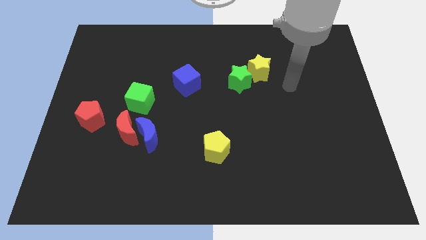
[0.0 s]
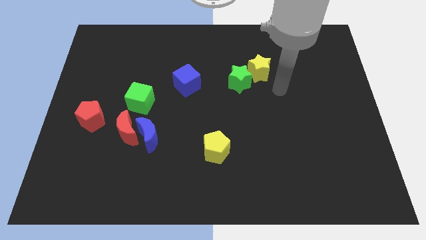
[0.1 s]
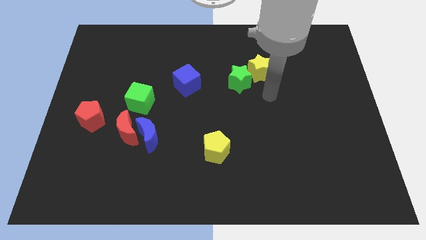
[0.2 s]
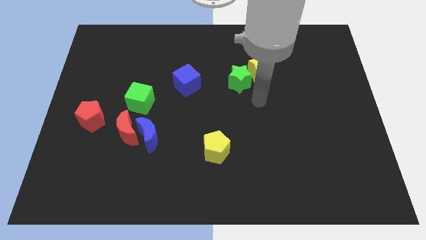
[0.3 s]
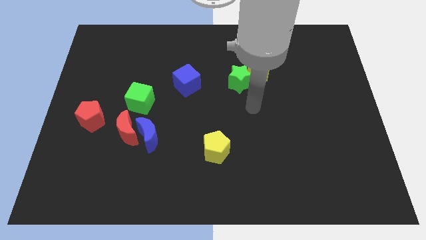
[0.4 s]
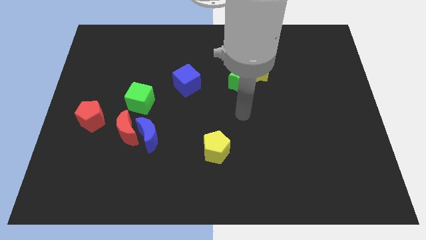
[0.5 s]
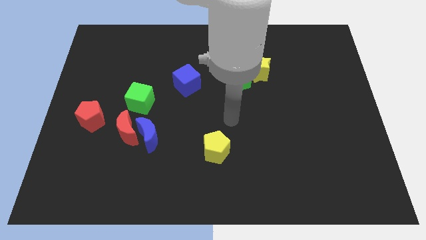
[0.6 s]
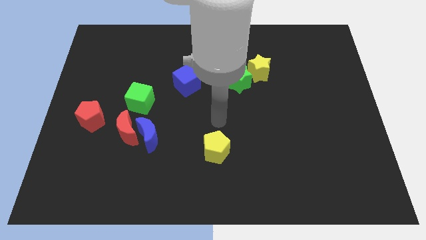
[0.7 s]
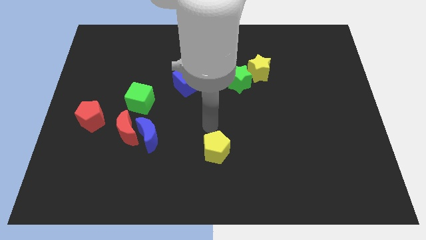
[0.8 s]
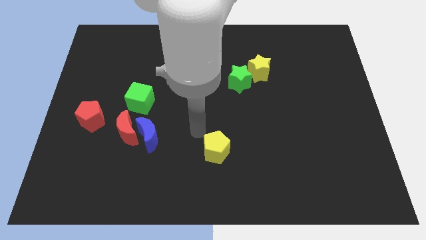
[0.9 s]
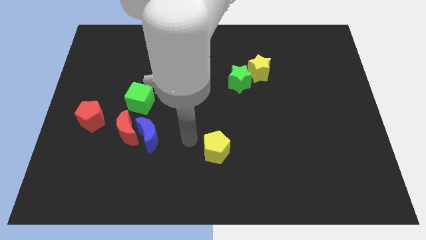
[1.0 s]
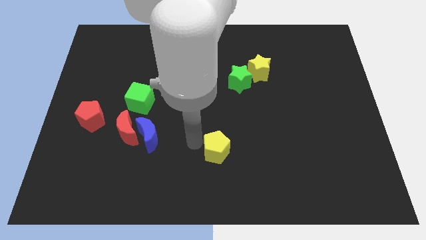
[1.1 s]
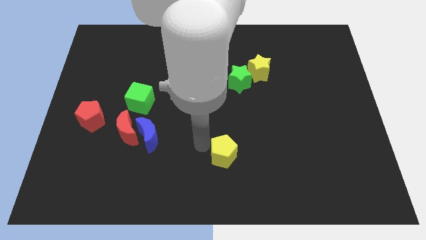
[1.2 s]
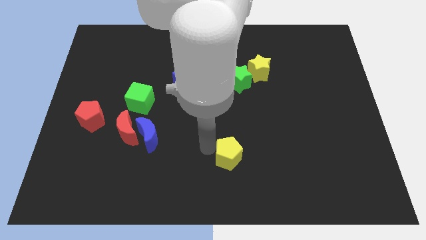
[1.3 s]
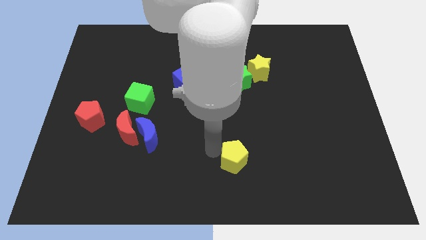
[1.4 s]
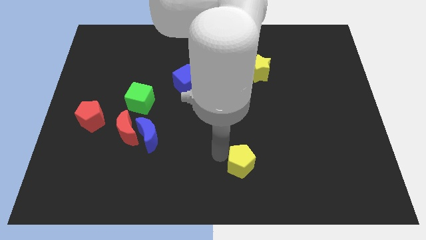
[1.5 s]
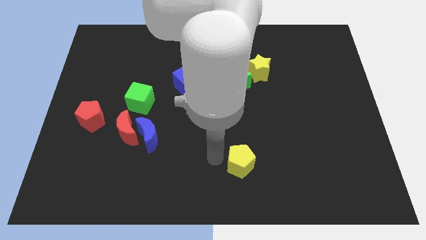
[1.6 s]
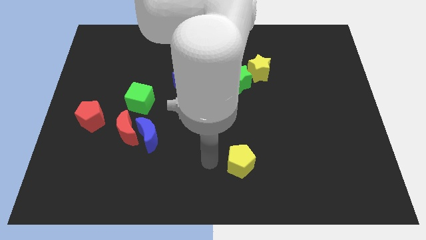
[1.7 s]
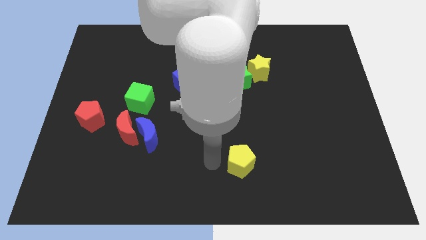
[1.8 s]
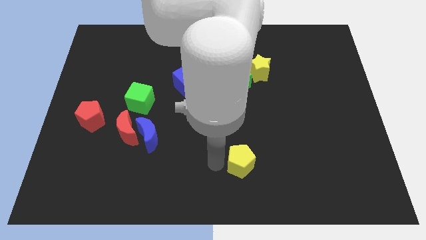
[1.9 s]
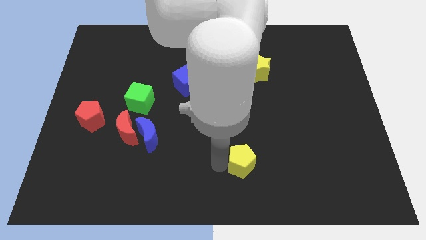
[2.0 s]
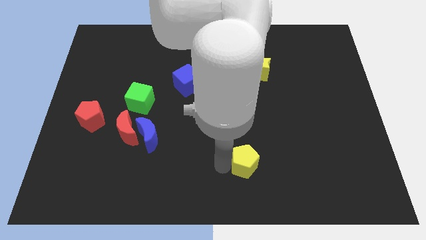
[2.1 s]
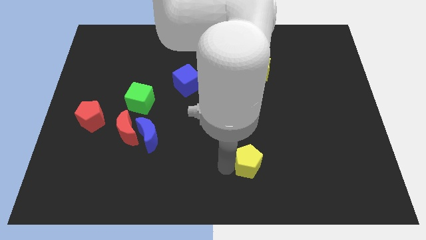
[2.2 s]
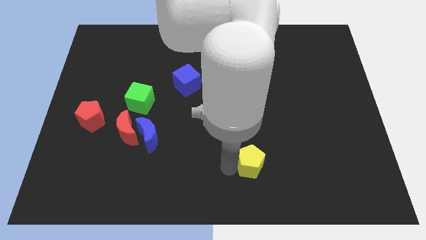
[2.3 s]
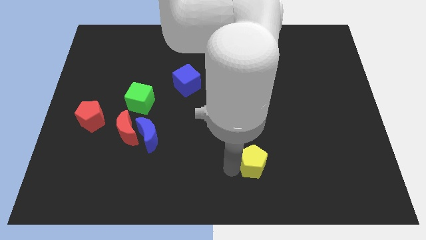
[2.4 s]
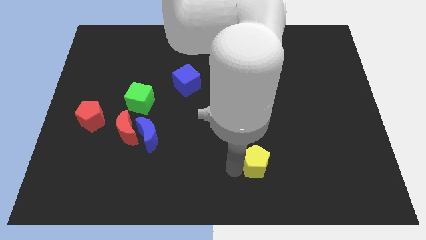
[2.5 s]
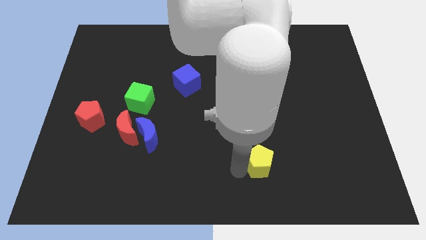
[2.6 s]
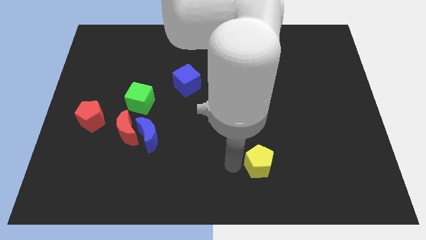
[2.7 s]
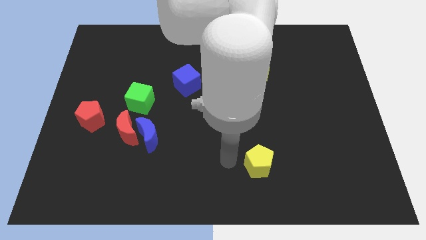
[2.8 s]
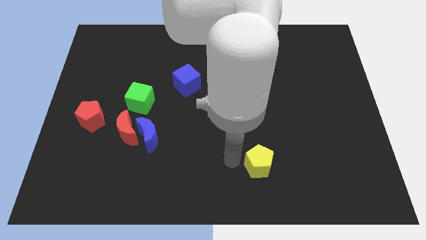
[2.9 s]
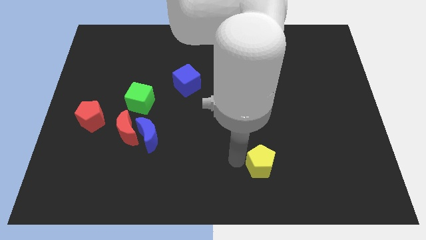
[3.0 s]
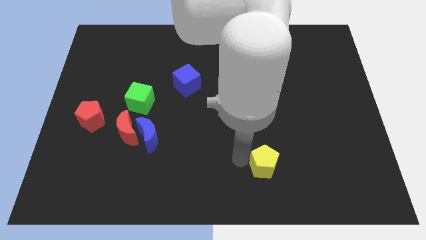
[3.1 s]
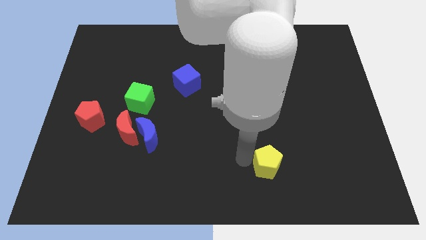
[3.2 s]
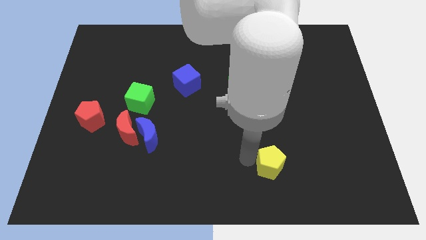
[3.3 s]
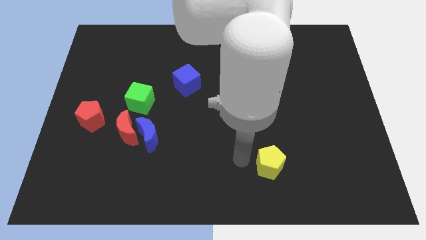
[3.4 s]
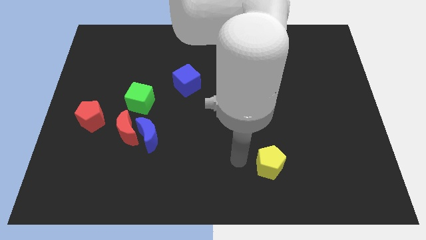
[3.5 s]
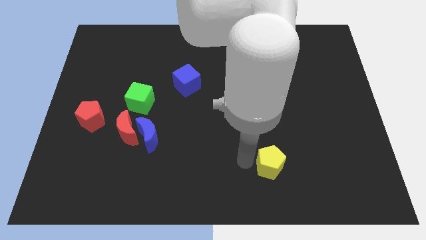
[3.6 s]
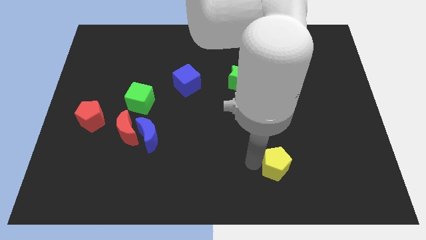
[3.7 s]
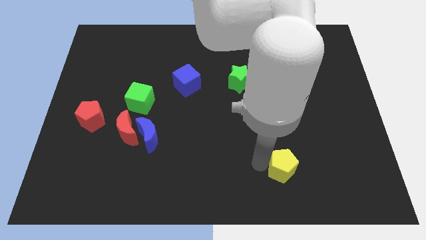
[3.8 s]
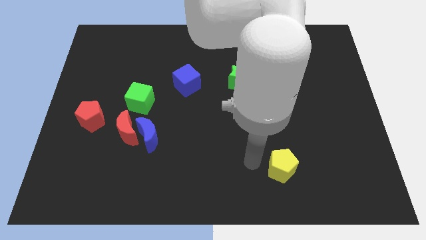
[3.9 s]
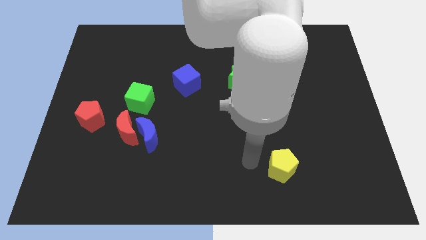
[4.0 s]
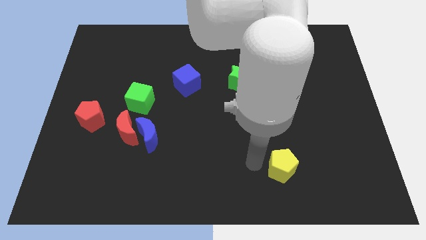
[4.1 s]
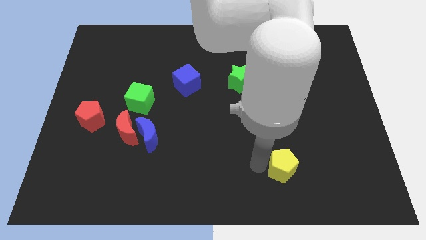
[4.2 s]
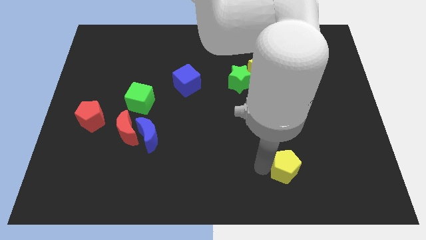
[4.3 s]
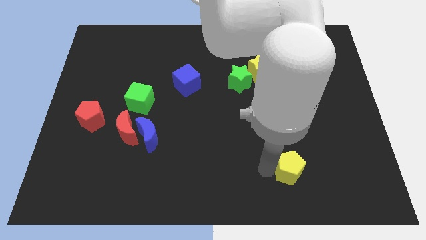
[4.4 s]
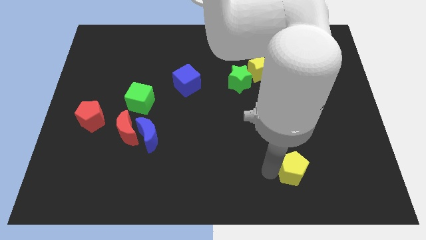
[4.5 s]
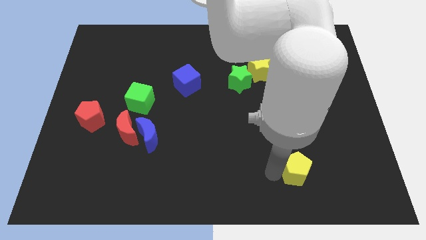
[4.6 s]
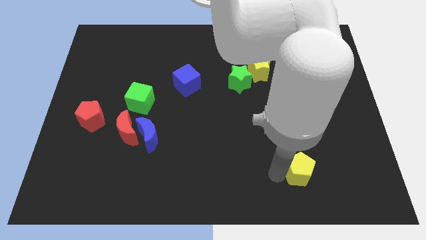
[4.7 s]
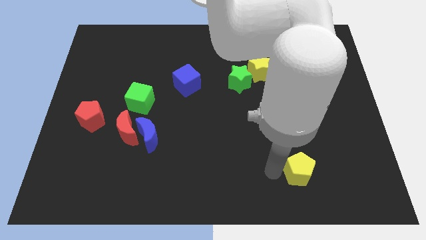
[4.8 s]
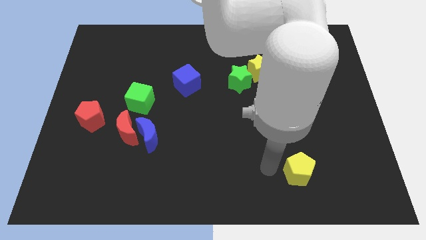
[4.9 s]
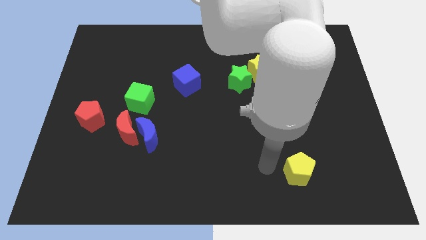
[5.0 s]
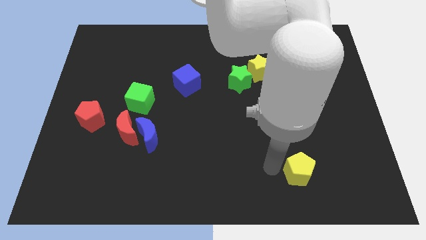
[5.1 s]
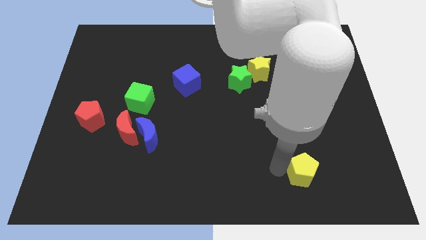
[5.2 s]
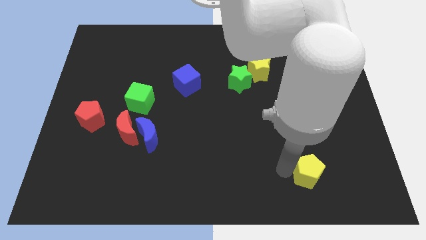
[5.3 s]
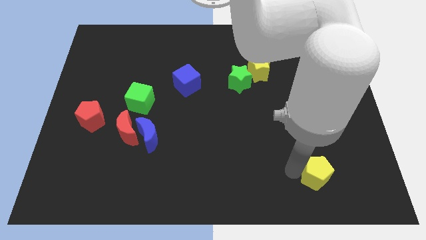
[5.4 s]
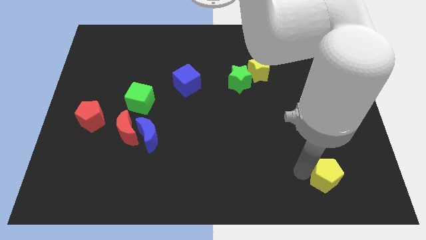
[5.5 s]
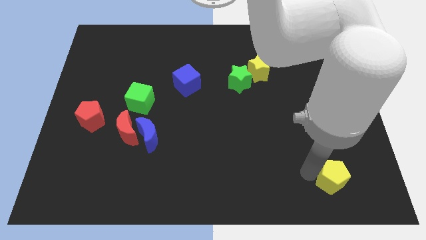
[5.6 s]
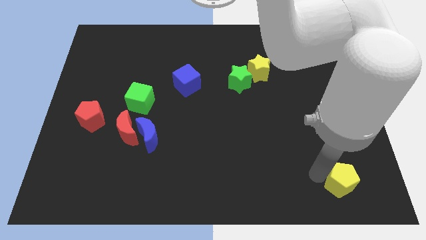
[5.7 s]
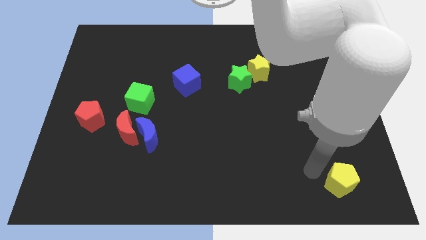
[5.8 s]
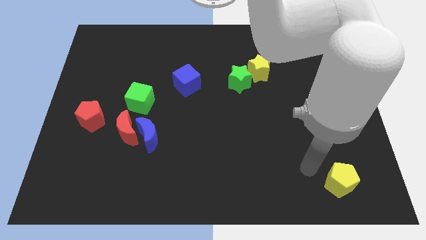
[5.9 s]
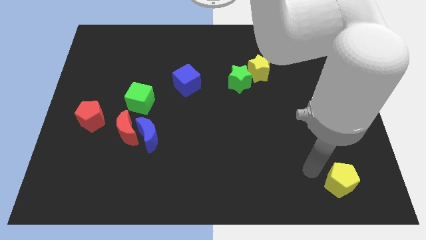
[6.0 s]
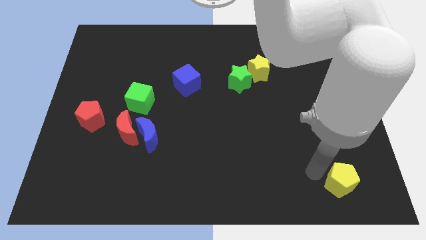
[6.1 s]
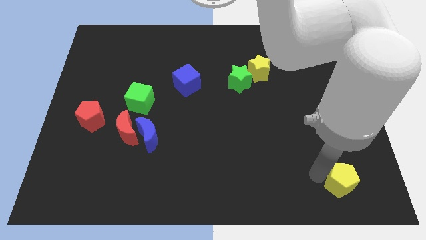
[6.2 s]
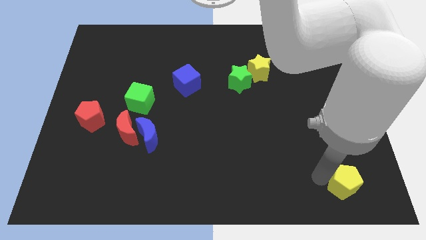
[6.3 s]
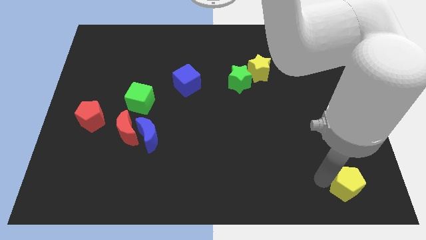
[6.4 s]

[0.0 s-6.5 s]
move the yellow pentagon to the bottom right

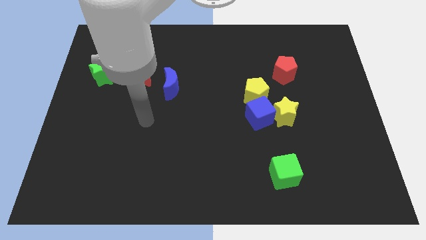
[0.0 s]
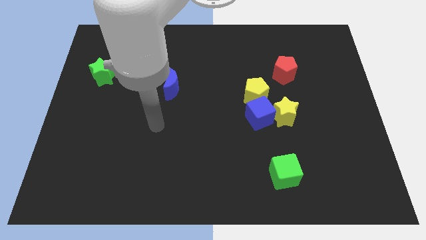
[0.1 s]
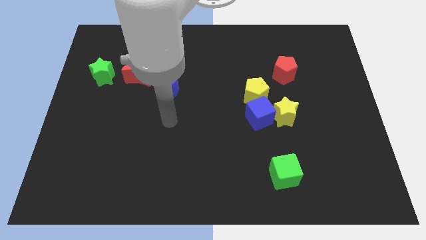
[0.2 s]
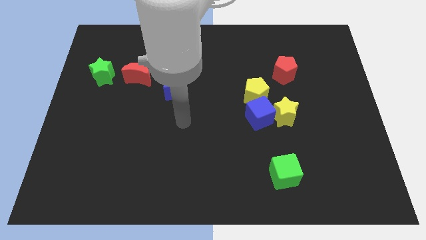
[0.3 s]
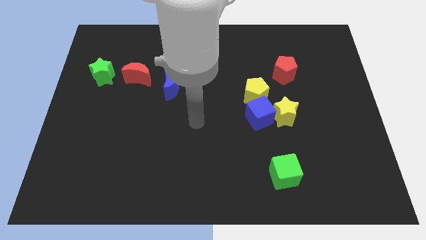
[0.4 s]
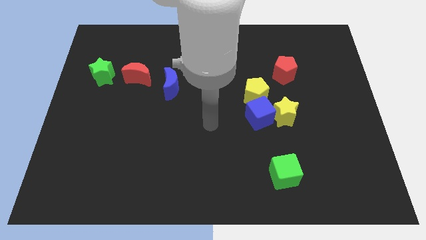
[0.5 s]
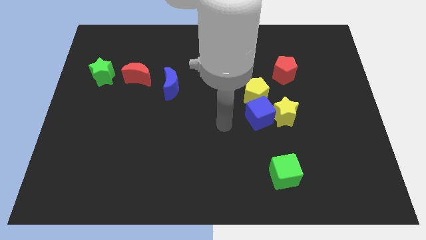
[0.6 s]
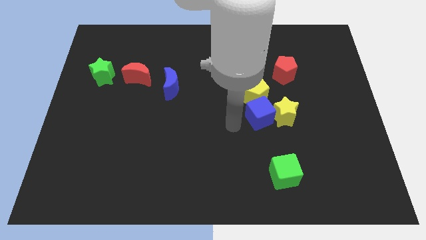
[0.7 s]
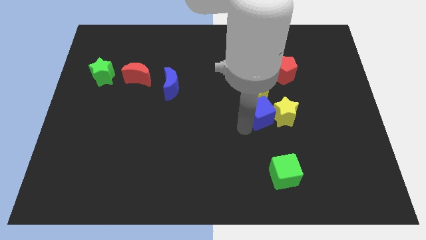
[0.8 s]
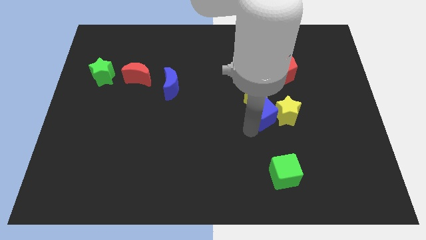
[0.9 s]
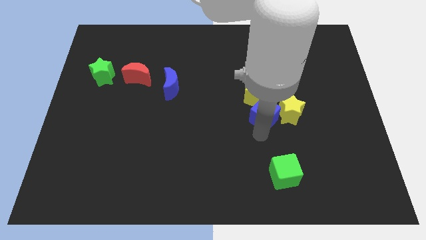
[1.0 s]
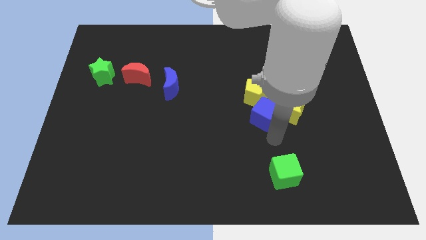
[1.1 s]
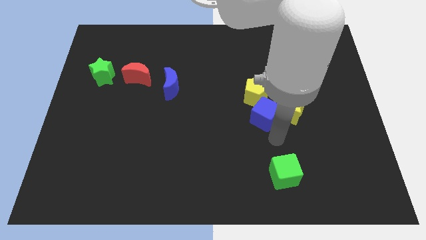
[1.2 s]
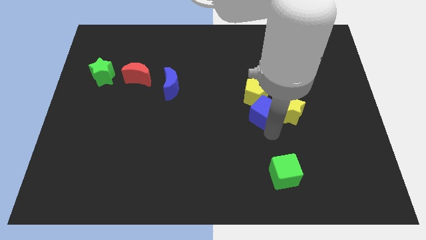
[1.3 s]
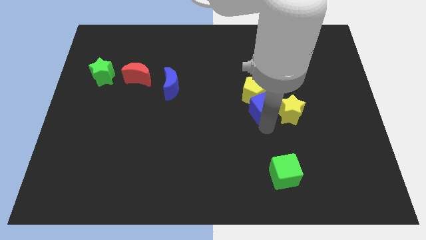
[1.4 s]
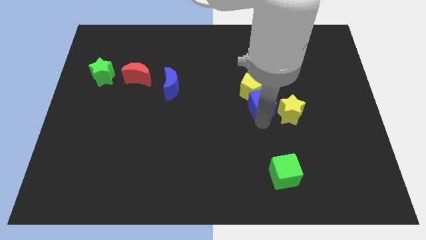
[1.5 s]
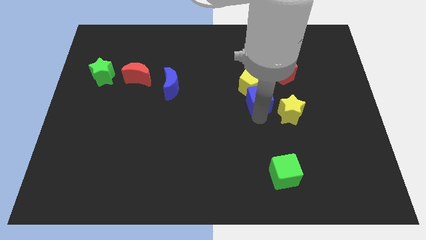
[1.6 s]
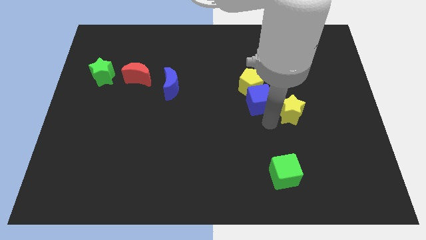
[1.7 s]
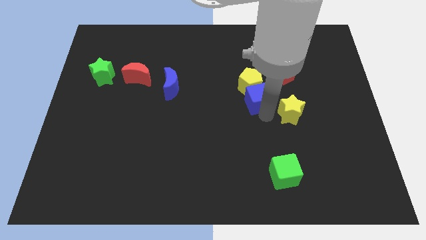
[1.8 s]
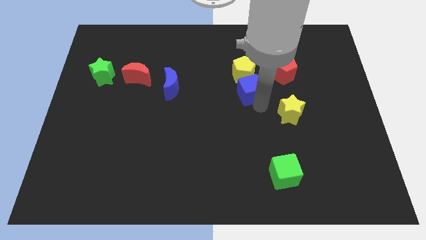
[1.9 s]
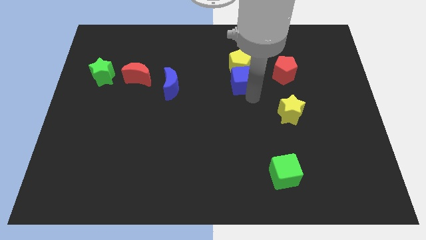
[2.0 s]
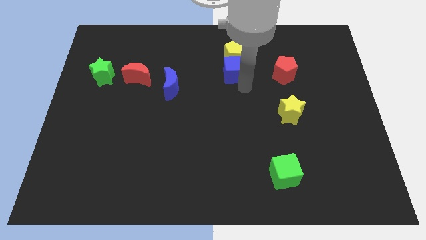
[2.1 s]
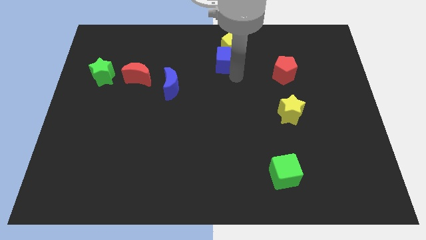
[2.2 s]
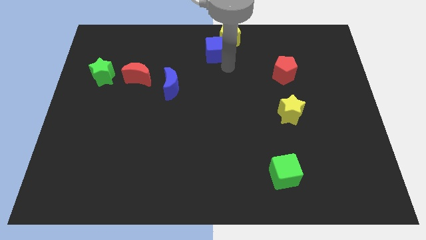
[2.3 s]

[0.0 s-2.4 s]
move the blue cube to the top side
